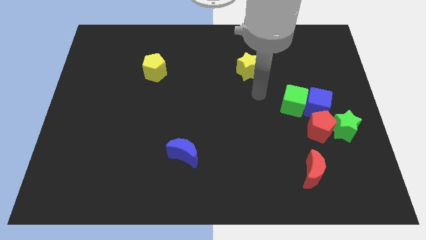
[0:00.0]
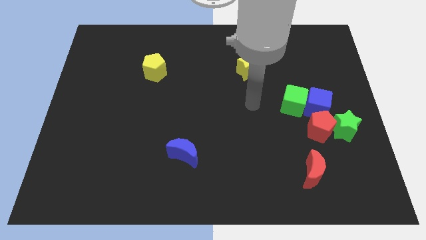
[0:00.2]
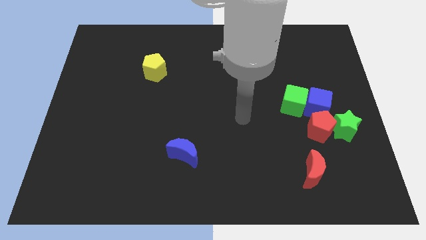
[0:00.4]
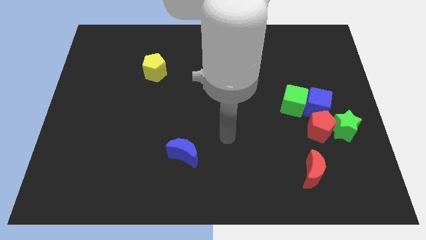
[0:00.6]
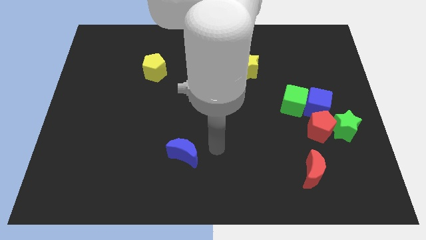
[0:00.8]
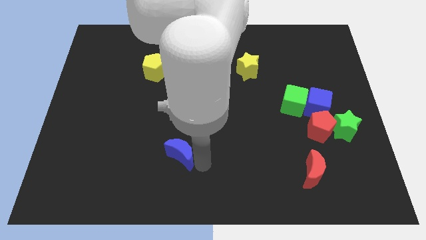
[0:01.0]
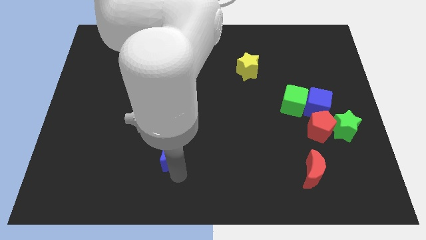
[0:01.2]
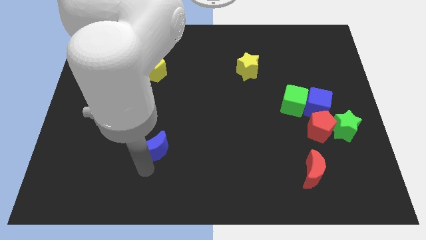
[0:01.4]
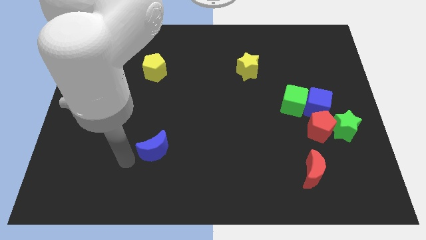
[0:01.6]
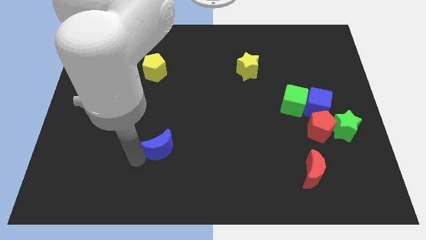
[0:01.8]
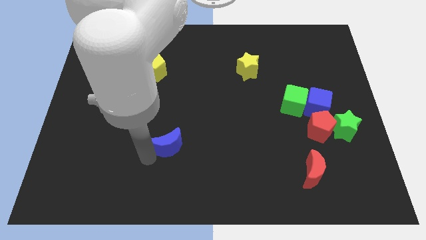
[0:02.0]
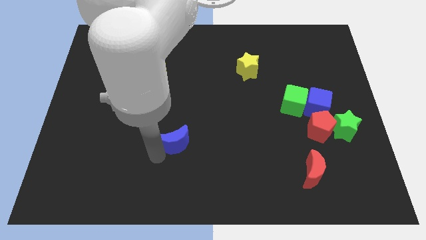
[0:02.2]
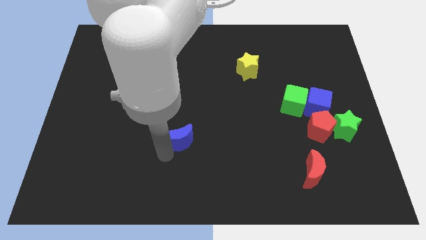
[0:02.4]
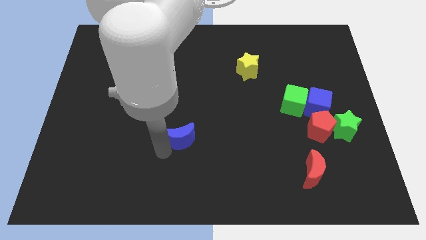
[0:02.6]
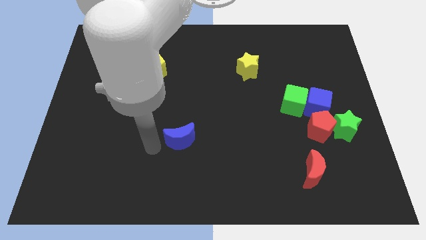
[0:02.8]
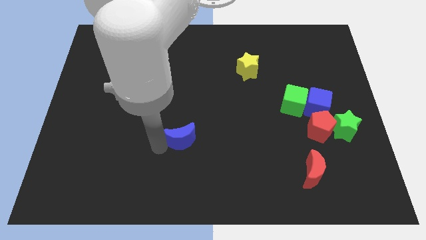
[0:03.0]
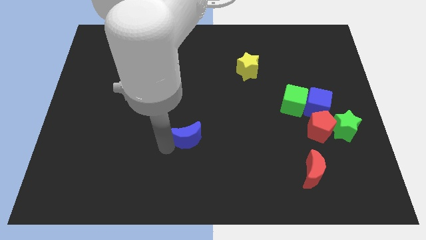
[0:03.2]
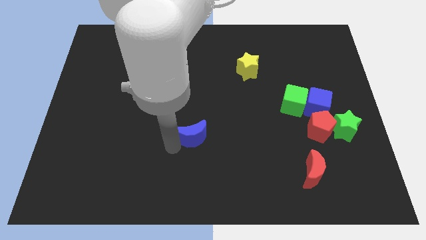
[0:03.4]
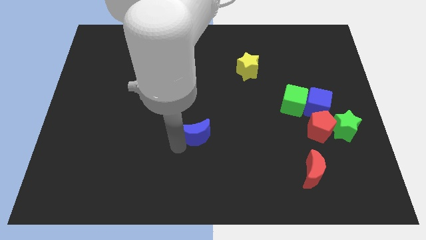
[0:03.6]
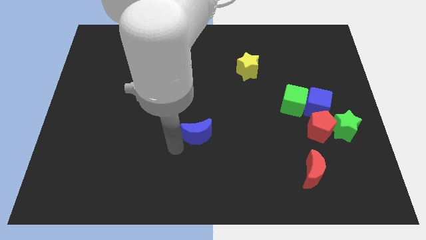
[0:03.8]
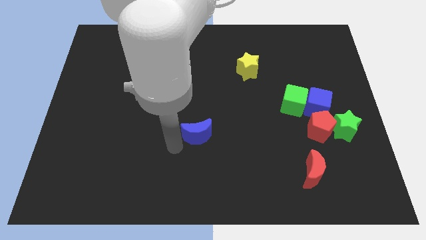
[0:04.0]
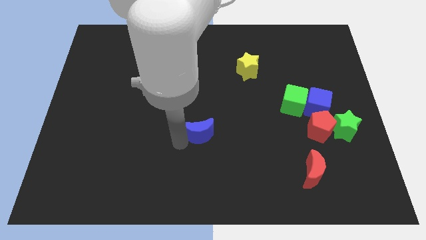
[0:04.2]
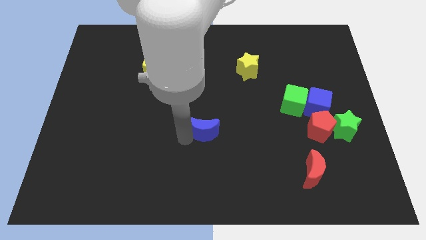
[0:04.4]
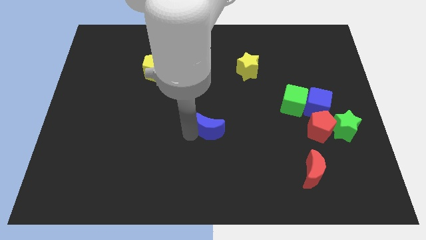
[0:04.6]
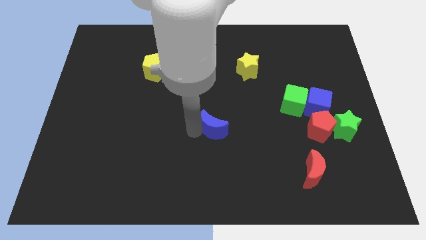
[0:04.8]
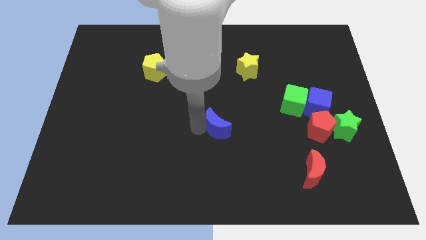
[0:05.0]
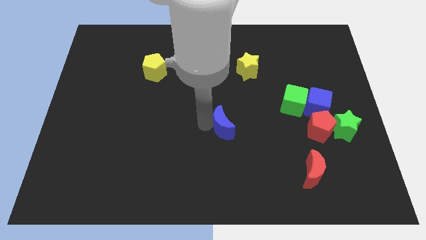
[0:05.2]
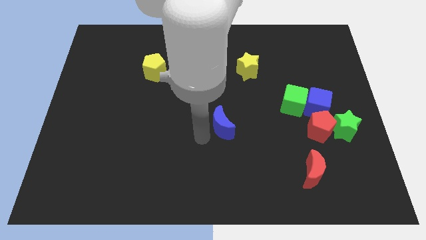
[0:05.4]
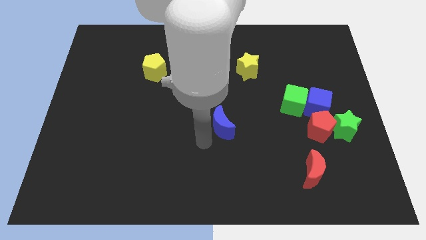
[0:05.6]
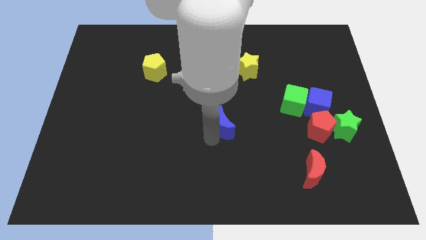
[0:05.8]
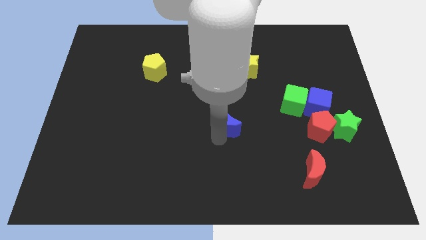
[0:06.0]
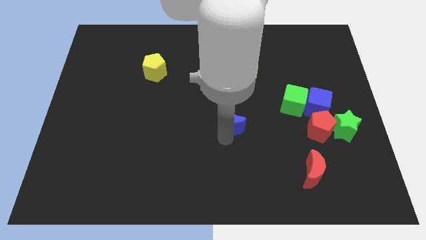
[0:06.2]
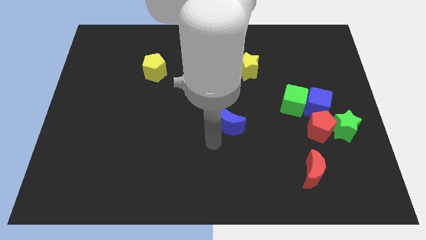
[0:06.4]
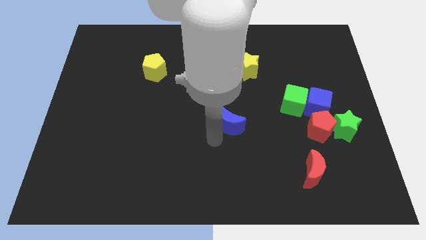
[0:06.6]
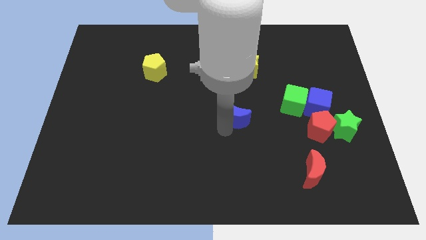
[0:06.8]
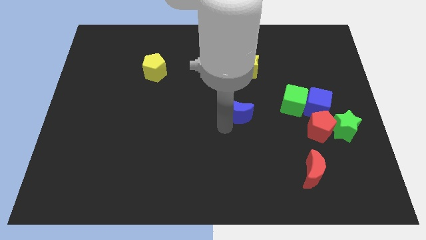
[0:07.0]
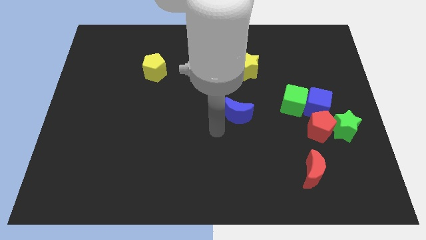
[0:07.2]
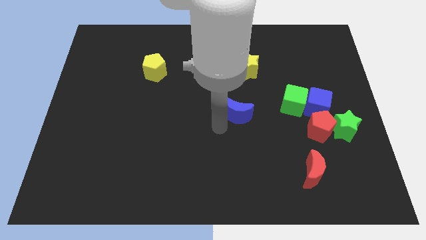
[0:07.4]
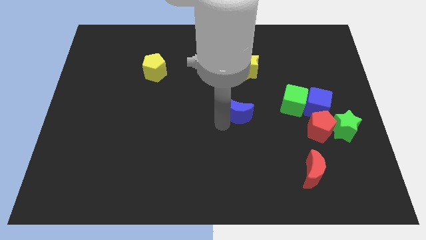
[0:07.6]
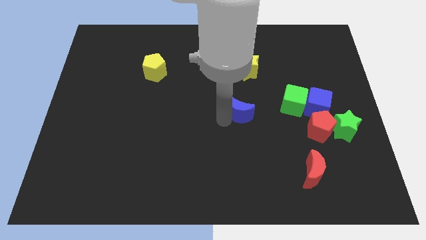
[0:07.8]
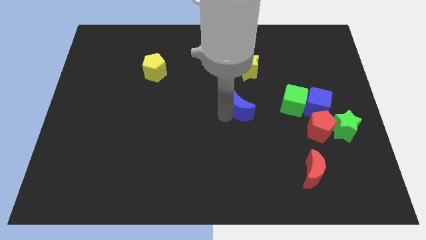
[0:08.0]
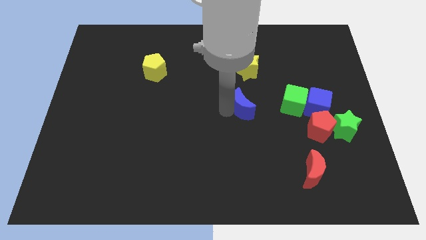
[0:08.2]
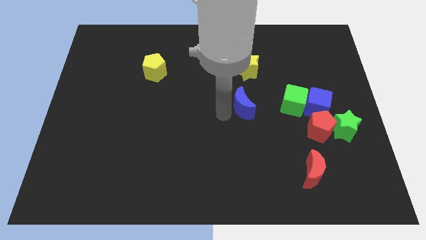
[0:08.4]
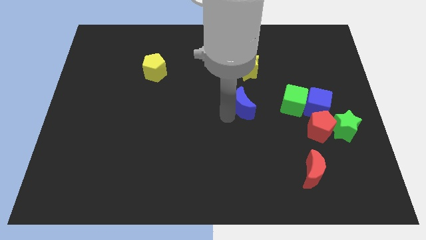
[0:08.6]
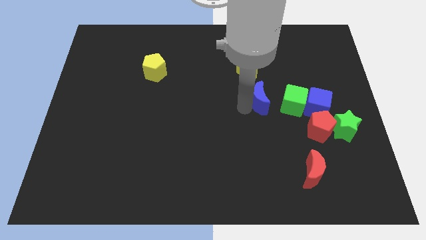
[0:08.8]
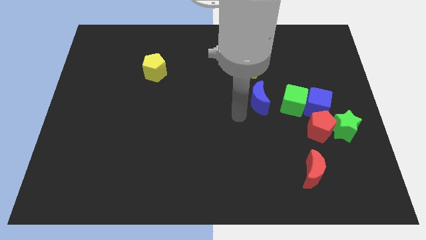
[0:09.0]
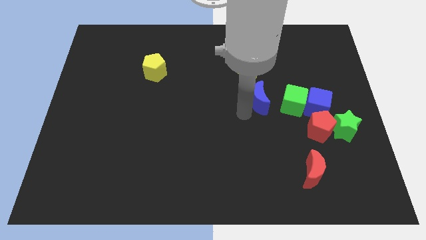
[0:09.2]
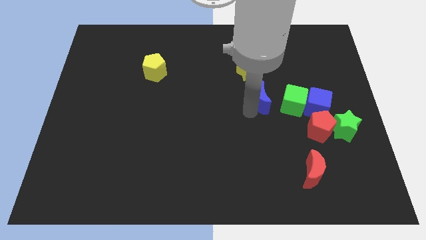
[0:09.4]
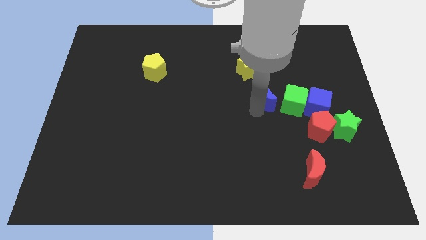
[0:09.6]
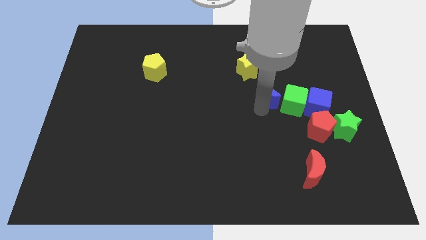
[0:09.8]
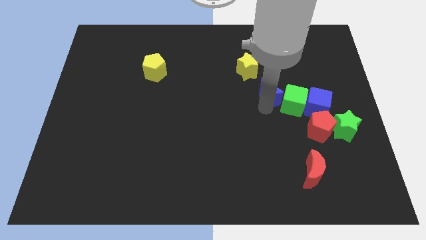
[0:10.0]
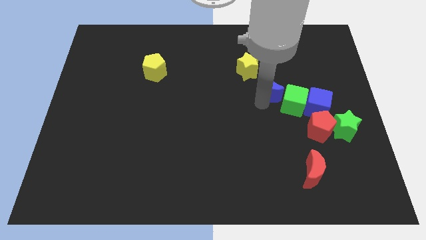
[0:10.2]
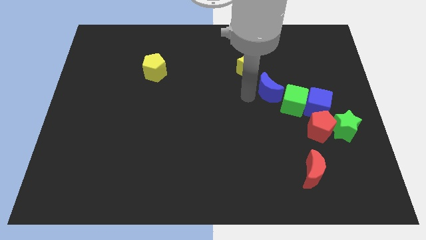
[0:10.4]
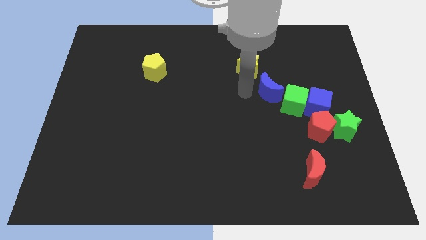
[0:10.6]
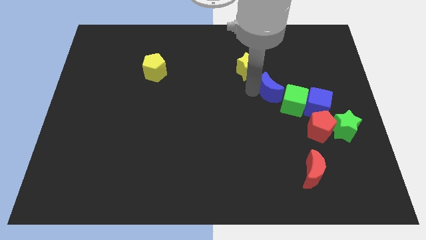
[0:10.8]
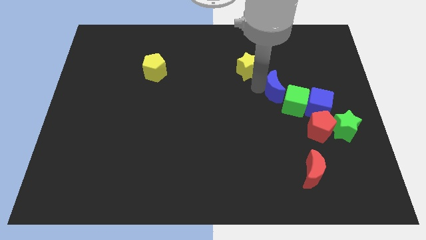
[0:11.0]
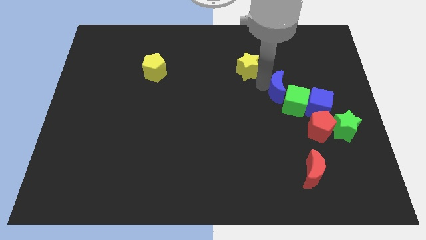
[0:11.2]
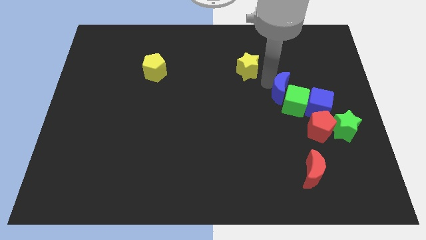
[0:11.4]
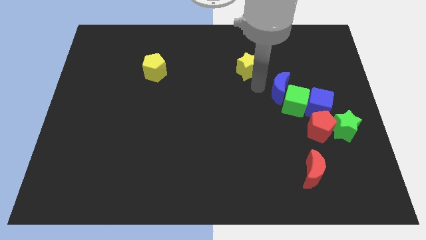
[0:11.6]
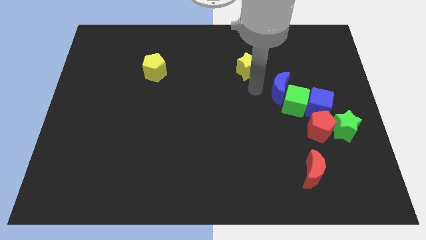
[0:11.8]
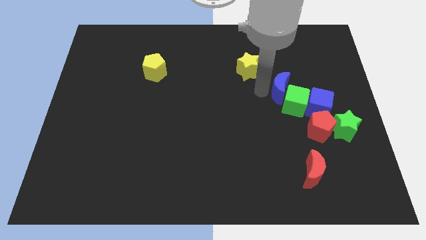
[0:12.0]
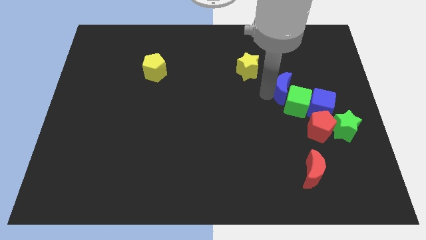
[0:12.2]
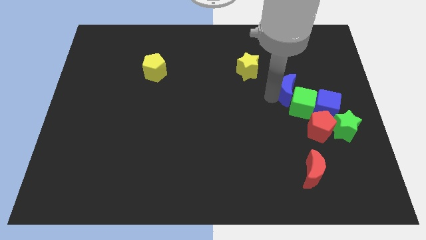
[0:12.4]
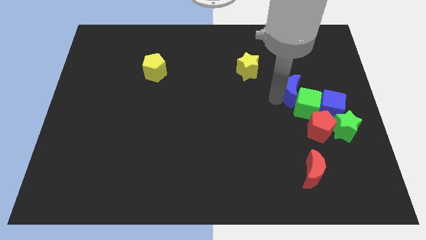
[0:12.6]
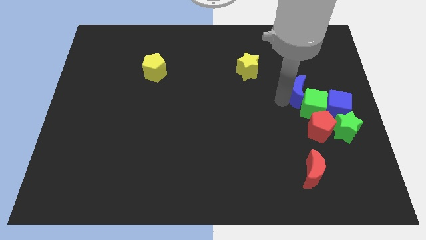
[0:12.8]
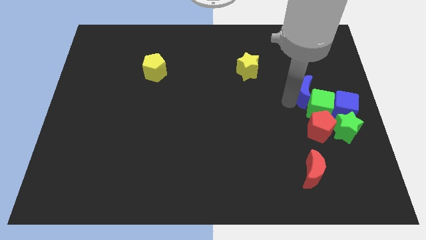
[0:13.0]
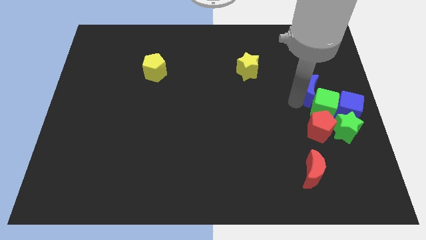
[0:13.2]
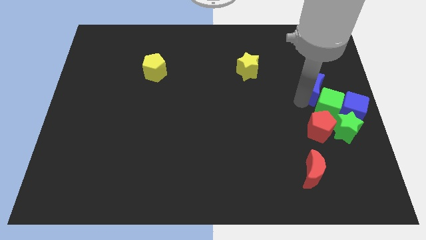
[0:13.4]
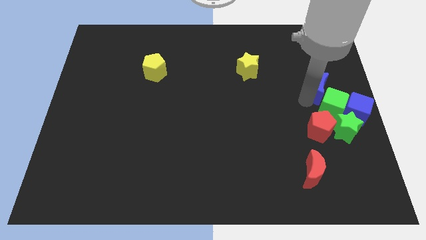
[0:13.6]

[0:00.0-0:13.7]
put the blue moon to the right side of the board
